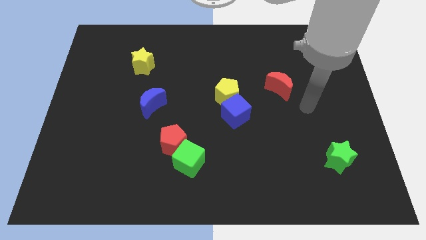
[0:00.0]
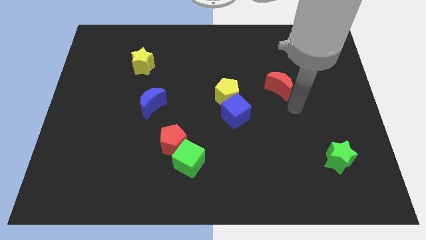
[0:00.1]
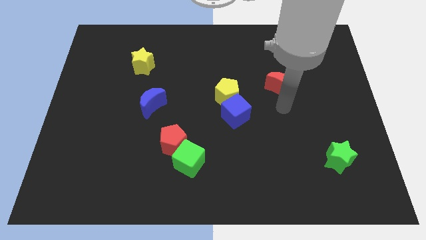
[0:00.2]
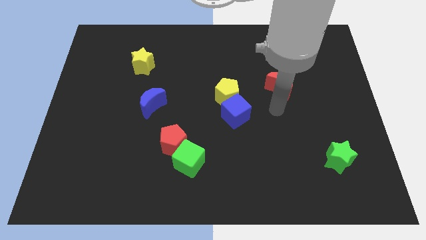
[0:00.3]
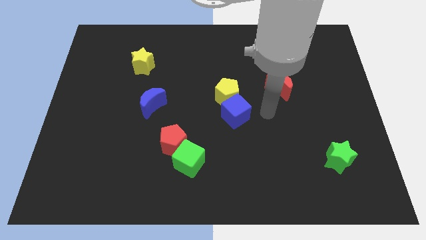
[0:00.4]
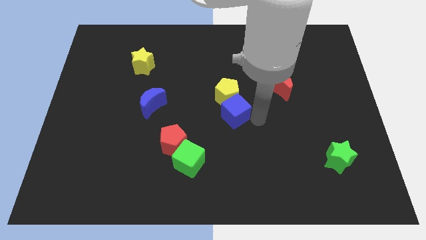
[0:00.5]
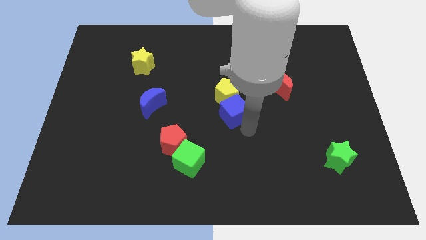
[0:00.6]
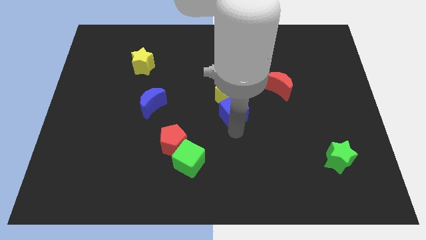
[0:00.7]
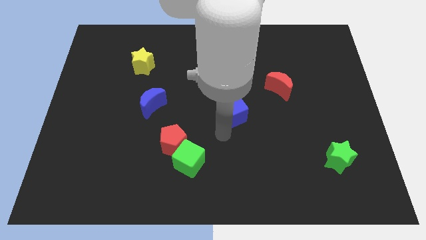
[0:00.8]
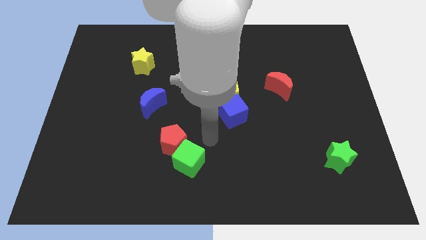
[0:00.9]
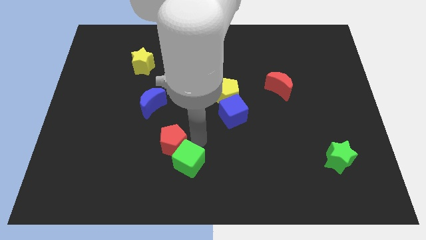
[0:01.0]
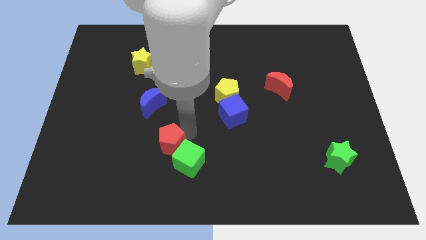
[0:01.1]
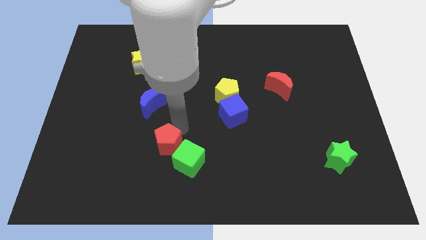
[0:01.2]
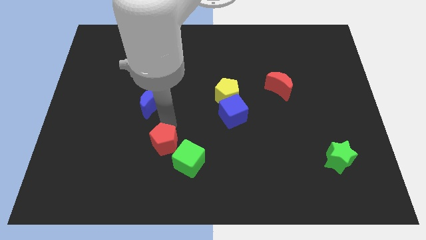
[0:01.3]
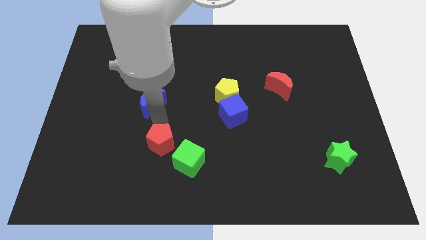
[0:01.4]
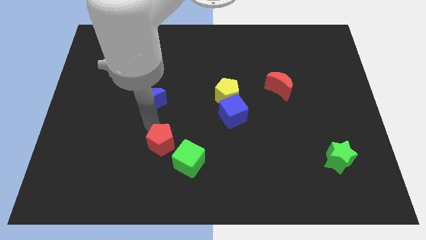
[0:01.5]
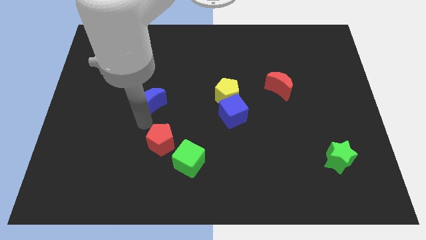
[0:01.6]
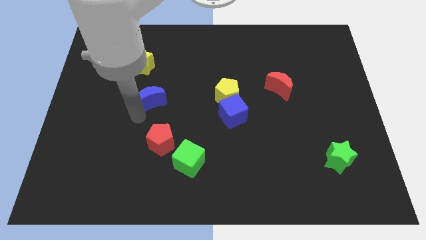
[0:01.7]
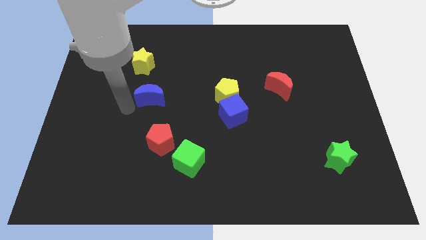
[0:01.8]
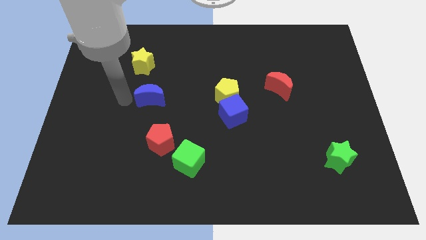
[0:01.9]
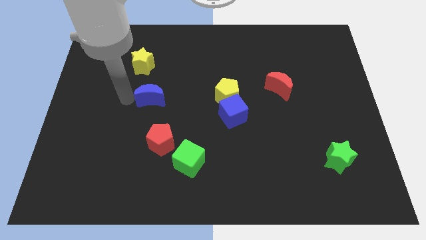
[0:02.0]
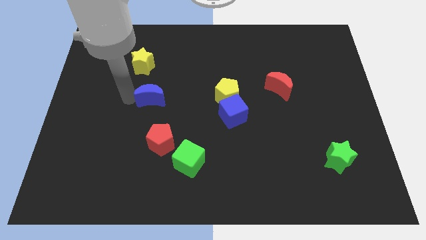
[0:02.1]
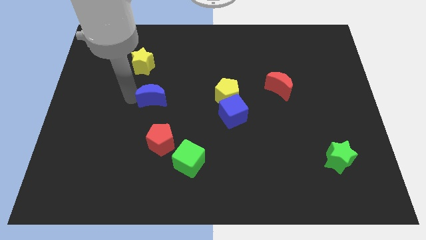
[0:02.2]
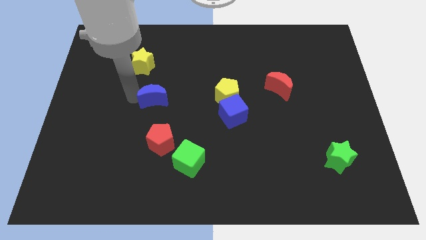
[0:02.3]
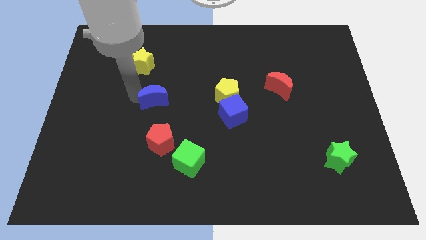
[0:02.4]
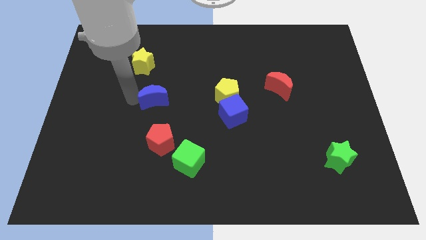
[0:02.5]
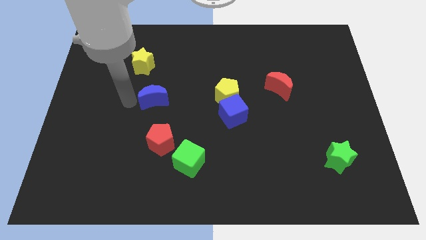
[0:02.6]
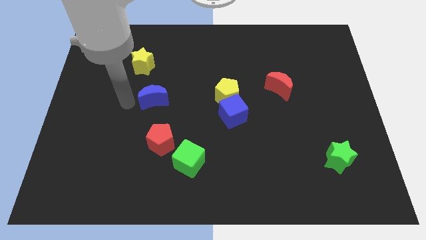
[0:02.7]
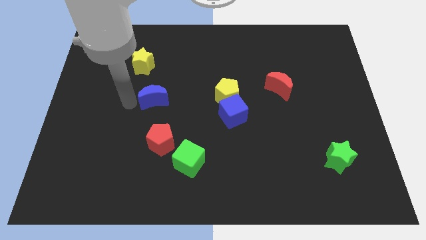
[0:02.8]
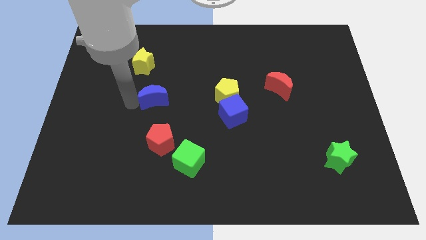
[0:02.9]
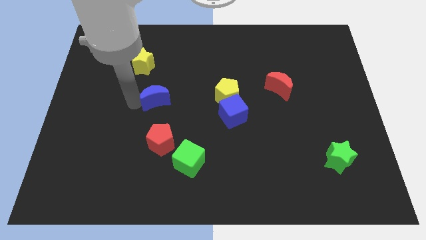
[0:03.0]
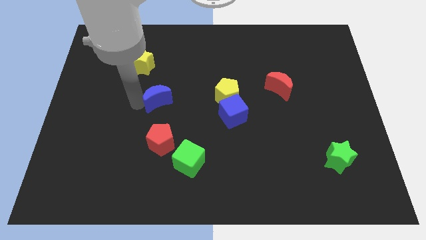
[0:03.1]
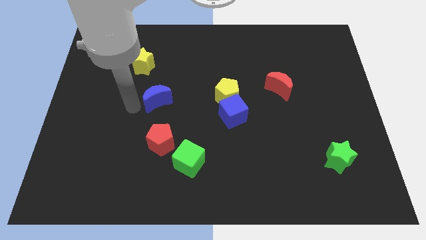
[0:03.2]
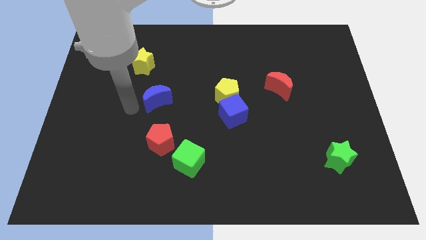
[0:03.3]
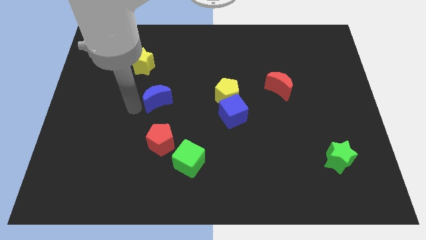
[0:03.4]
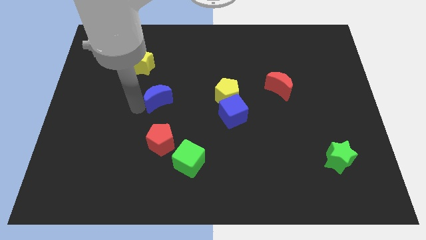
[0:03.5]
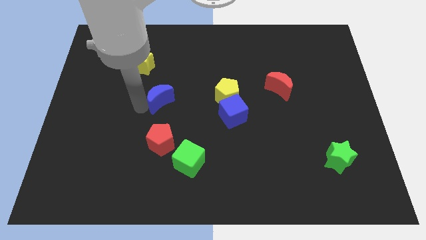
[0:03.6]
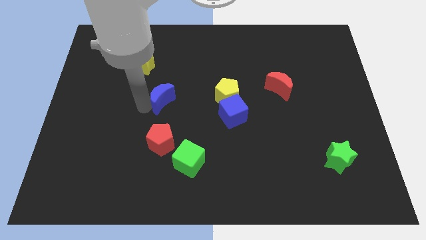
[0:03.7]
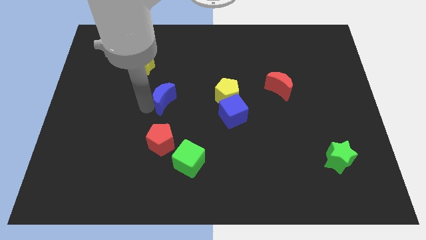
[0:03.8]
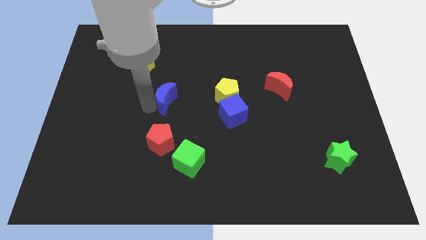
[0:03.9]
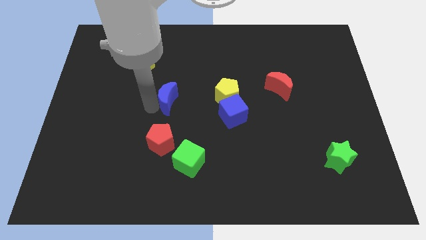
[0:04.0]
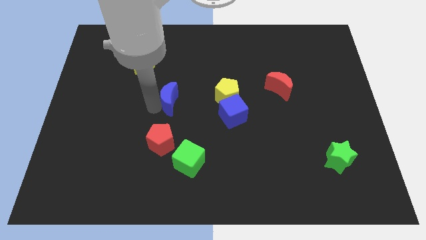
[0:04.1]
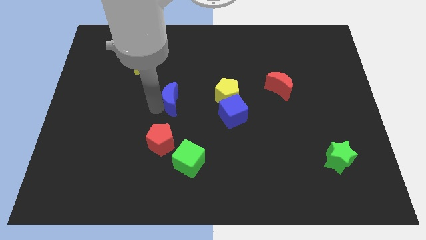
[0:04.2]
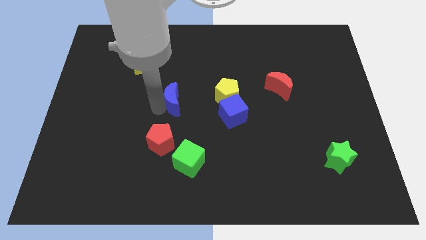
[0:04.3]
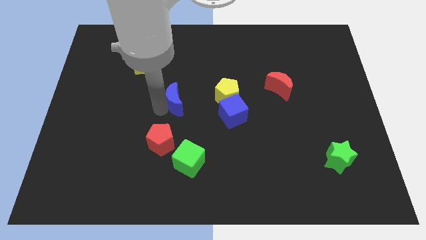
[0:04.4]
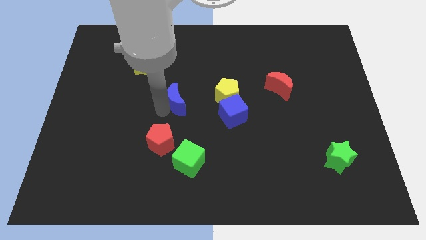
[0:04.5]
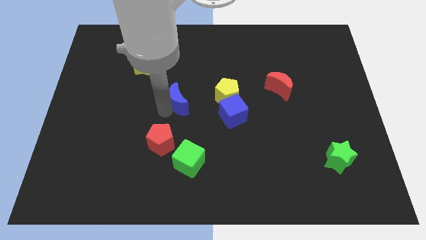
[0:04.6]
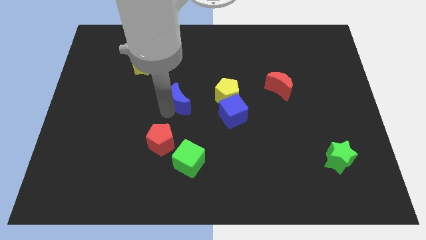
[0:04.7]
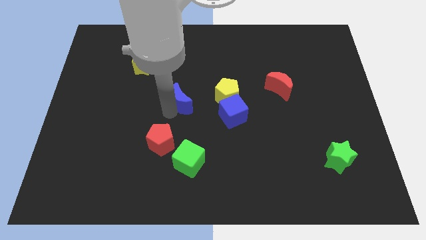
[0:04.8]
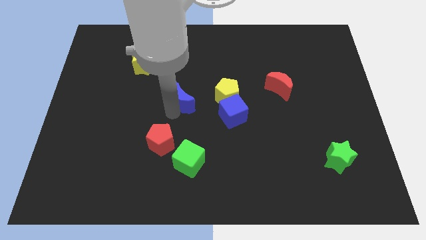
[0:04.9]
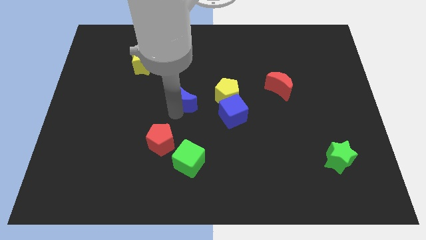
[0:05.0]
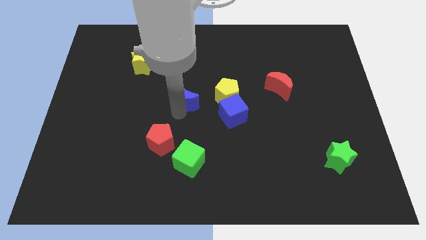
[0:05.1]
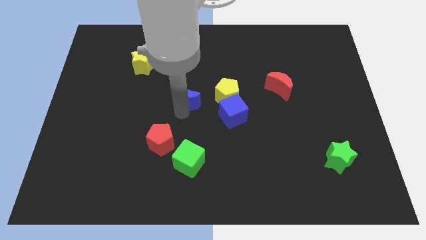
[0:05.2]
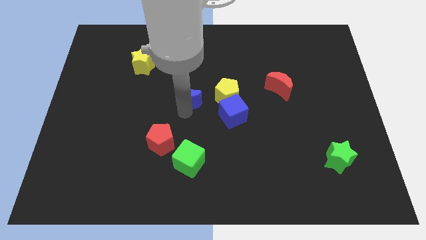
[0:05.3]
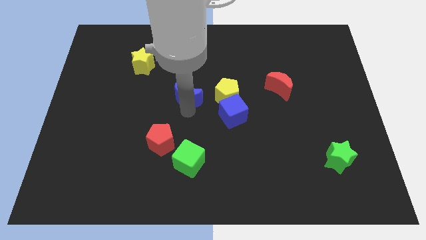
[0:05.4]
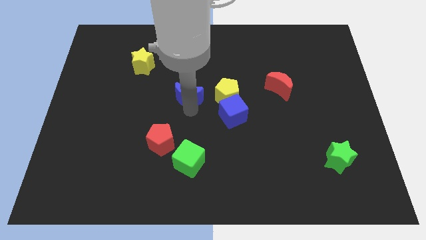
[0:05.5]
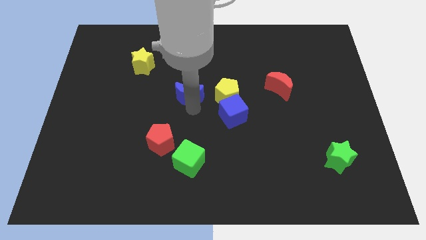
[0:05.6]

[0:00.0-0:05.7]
slightly push the blue moon up and right diagonally

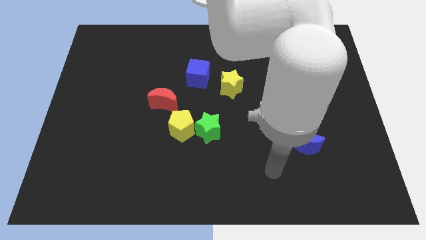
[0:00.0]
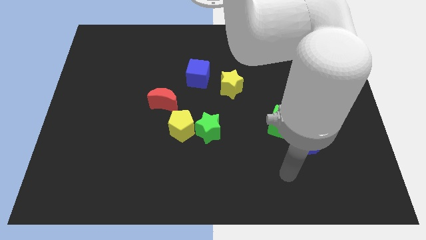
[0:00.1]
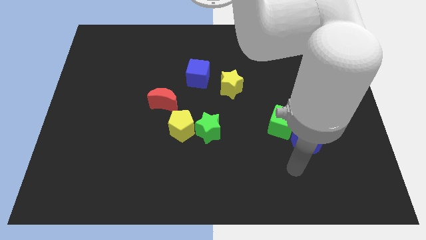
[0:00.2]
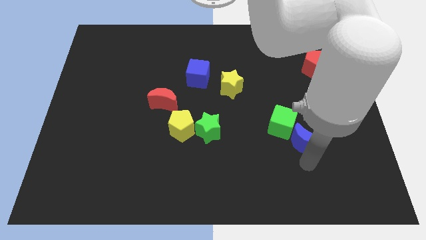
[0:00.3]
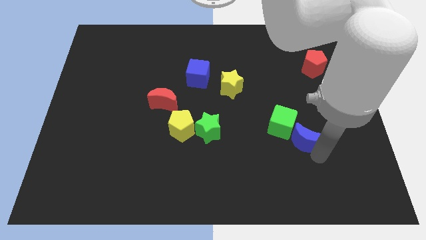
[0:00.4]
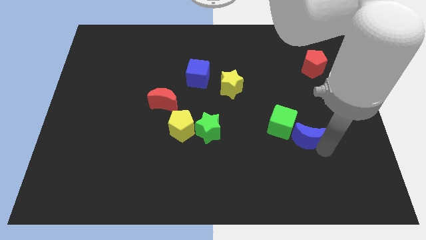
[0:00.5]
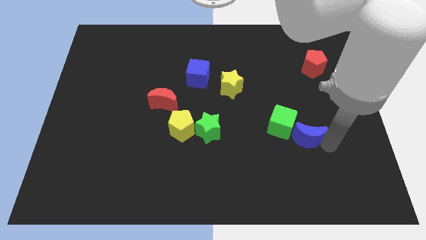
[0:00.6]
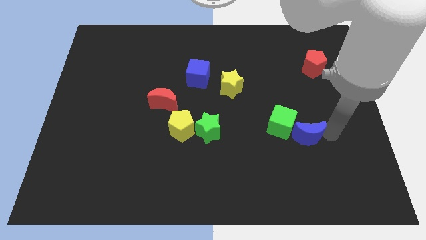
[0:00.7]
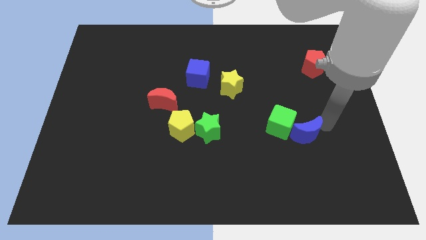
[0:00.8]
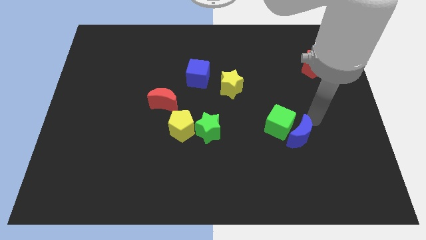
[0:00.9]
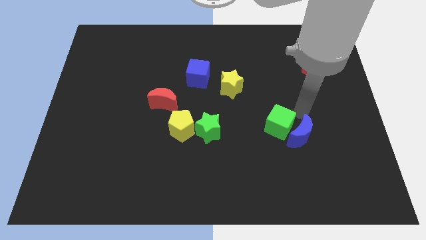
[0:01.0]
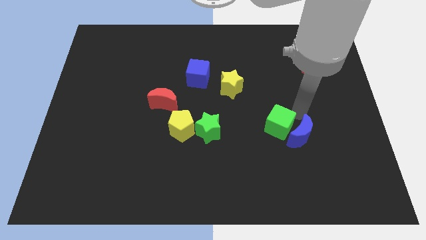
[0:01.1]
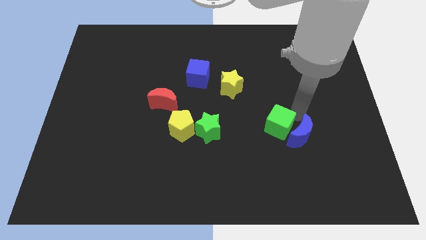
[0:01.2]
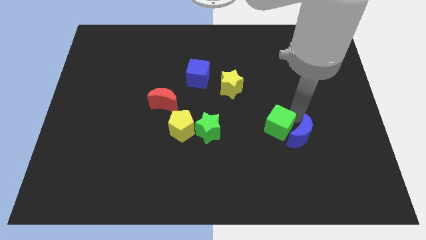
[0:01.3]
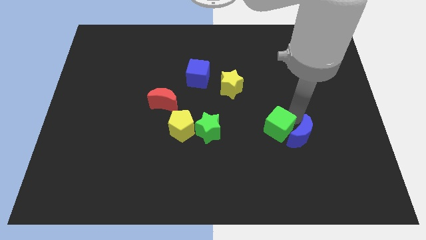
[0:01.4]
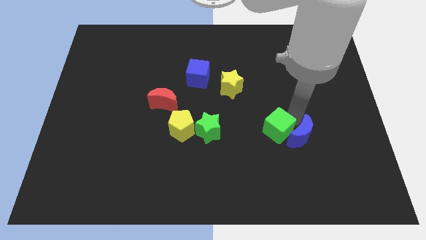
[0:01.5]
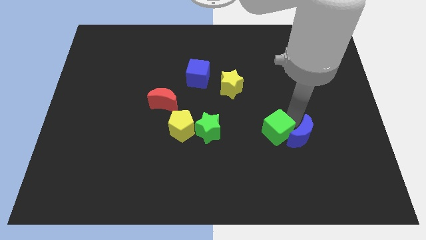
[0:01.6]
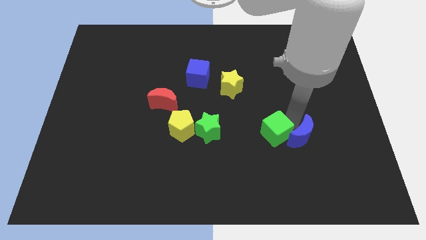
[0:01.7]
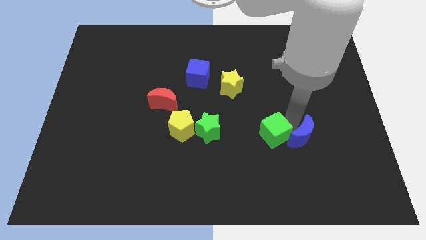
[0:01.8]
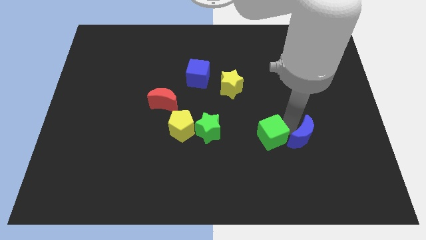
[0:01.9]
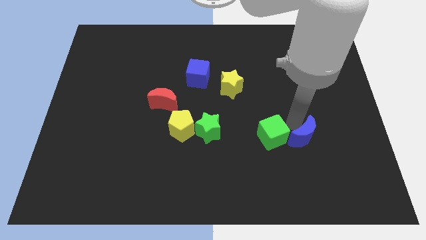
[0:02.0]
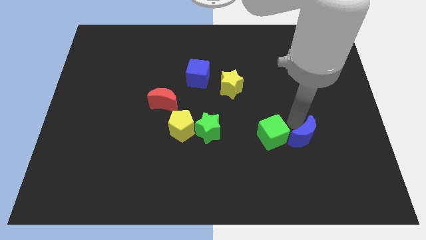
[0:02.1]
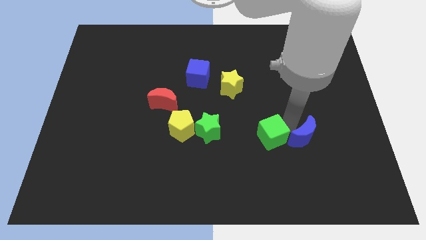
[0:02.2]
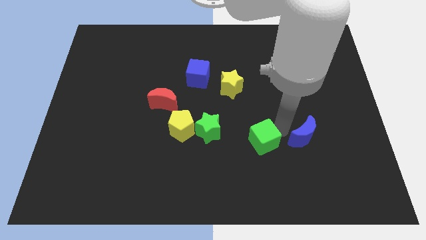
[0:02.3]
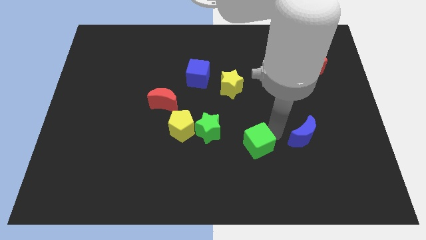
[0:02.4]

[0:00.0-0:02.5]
move the green cube a little bit diagonally down and to the left

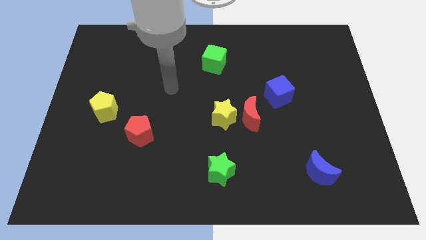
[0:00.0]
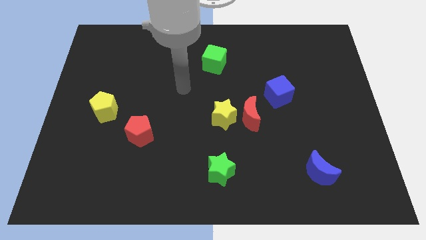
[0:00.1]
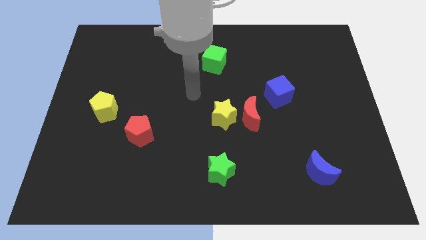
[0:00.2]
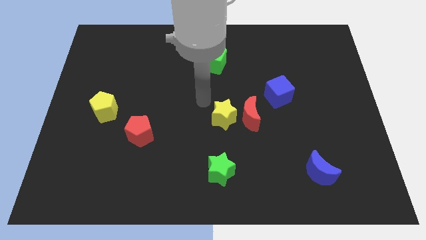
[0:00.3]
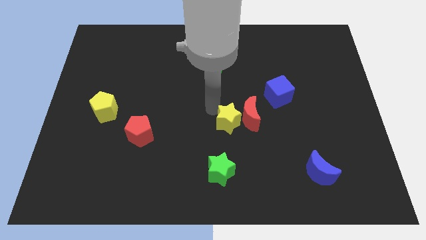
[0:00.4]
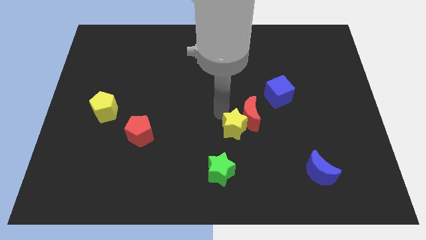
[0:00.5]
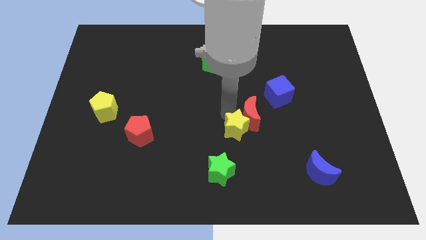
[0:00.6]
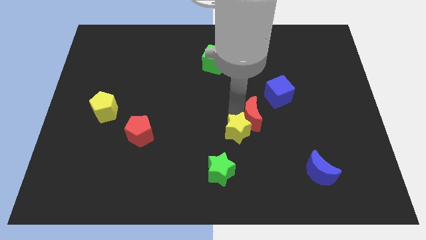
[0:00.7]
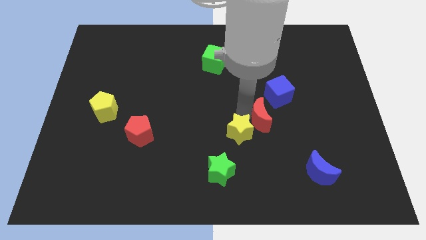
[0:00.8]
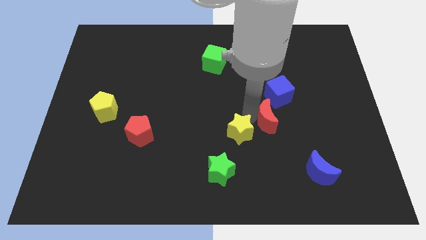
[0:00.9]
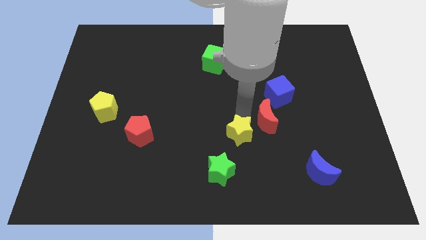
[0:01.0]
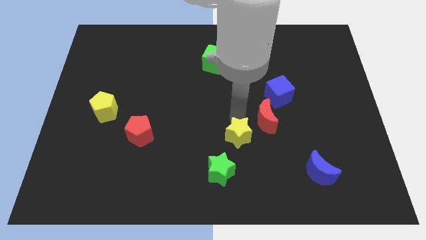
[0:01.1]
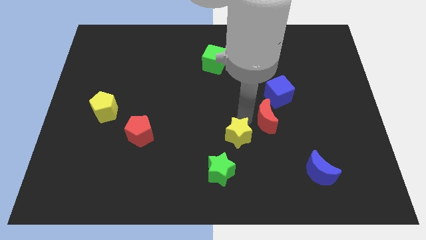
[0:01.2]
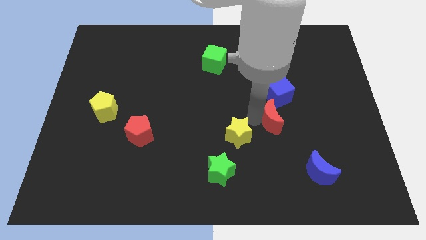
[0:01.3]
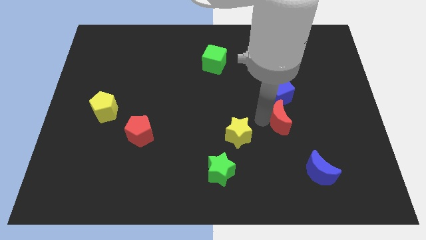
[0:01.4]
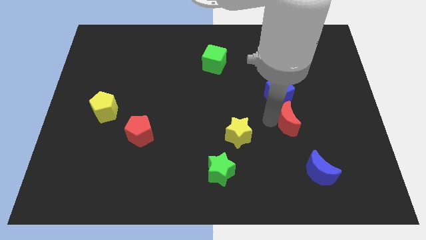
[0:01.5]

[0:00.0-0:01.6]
slide the red moon slightly to the right
